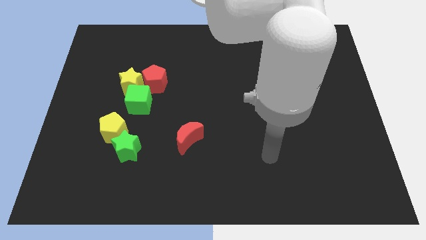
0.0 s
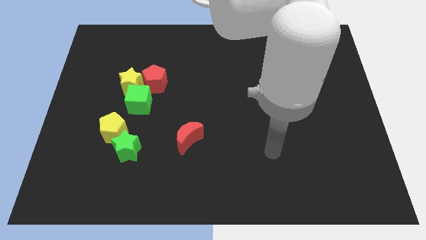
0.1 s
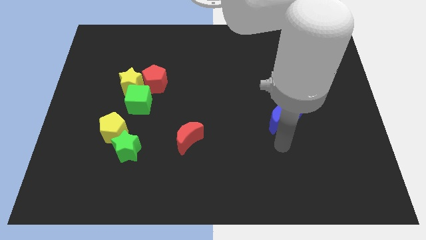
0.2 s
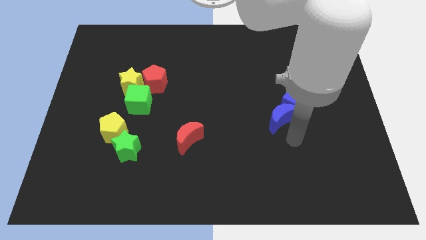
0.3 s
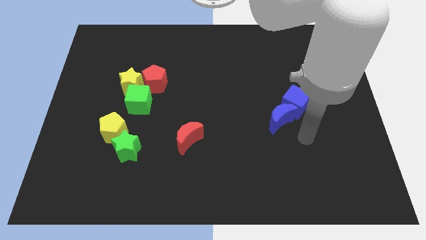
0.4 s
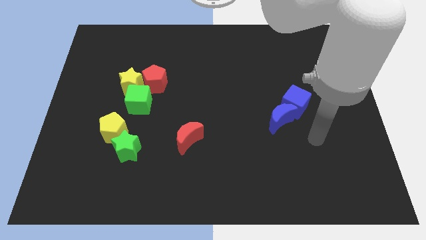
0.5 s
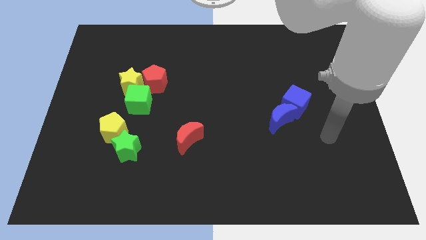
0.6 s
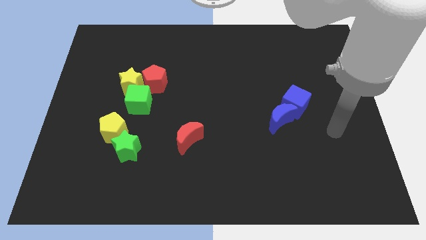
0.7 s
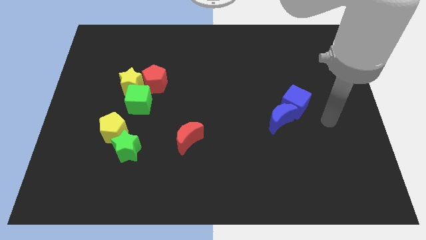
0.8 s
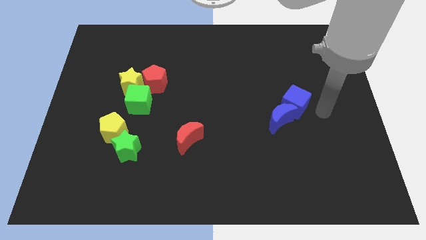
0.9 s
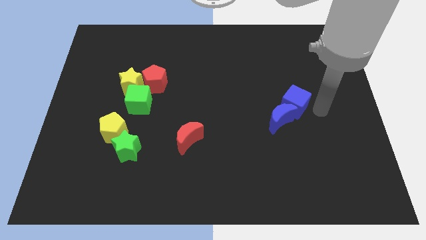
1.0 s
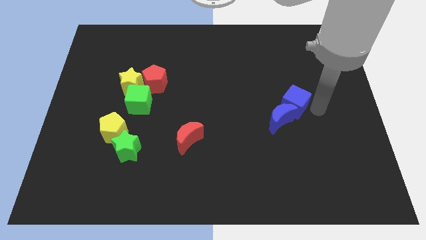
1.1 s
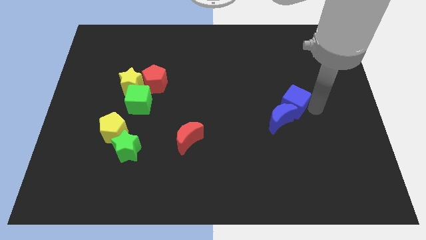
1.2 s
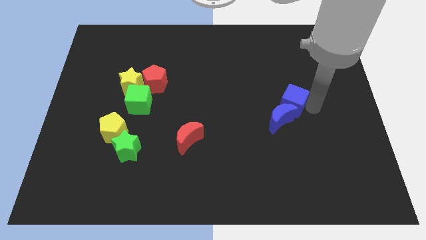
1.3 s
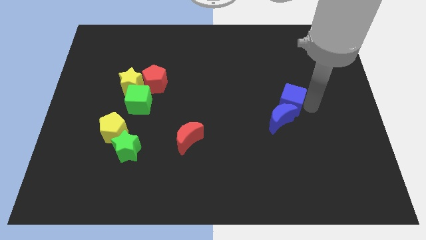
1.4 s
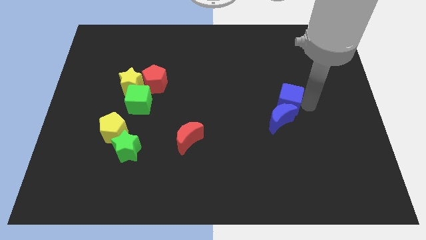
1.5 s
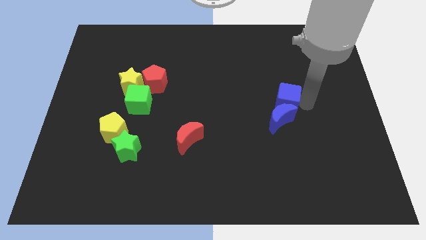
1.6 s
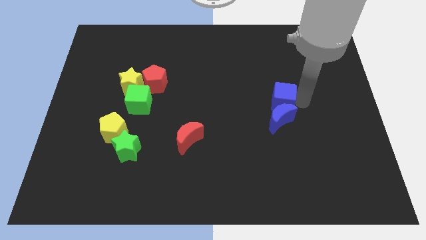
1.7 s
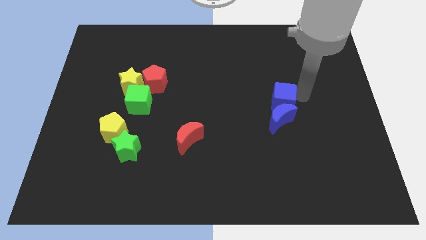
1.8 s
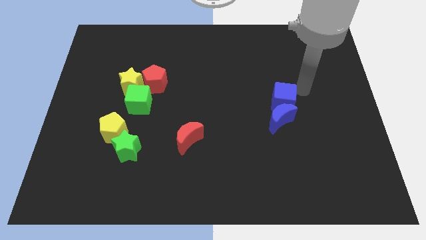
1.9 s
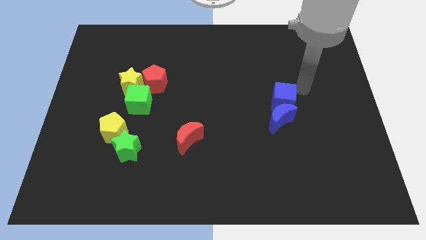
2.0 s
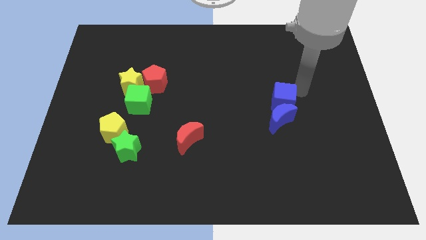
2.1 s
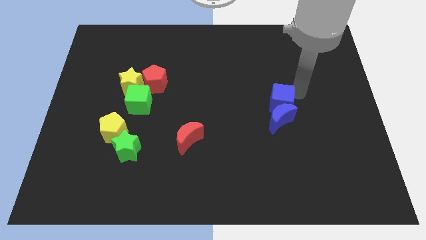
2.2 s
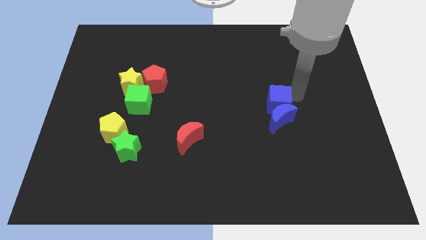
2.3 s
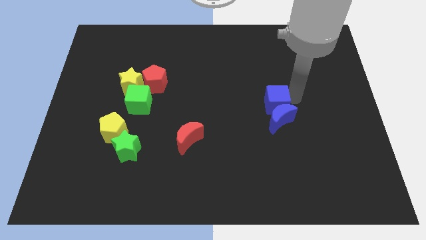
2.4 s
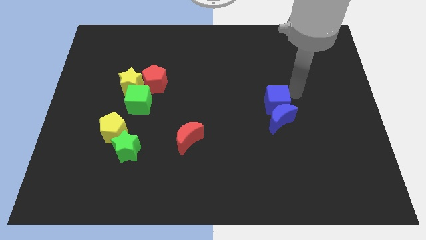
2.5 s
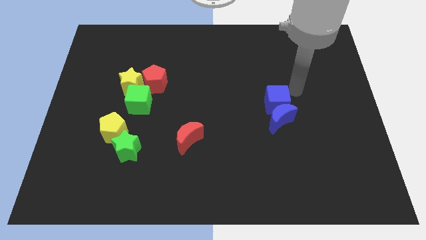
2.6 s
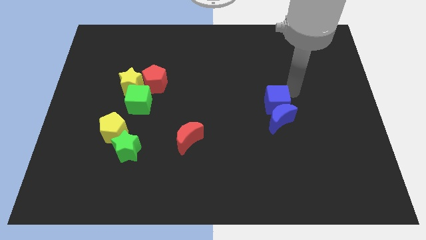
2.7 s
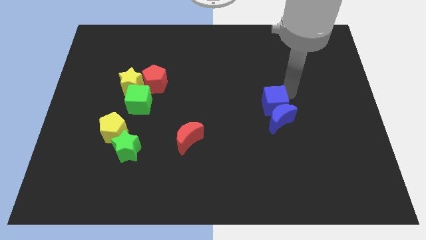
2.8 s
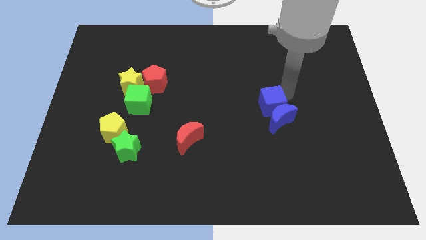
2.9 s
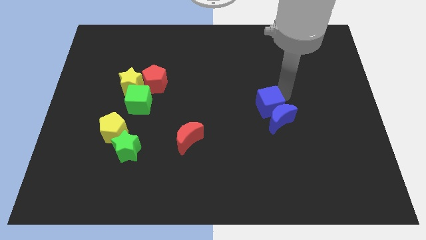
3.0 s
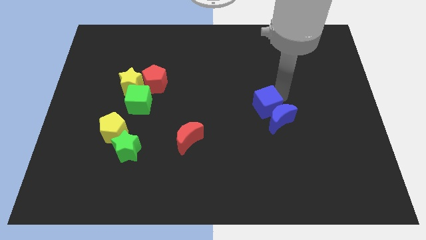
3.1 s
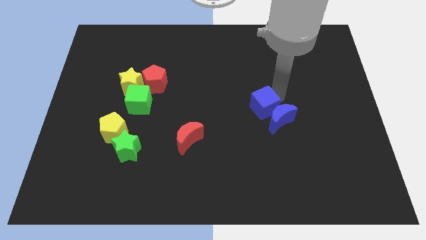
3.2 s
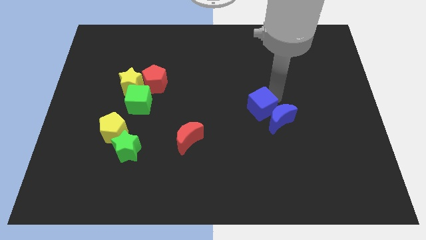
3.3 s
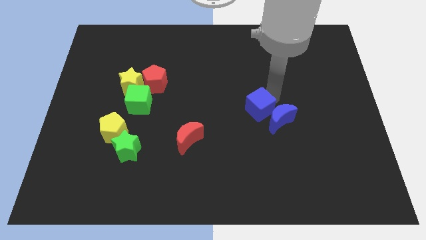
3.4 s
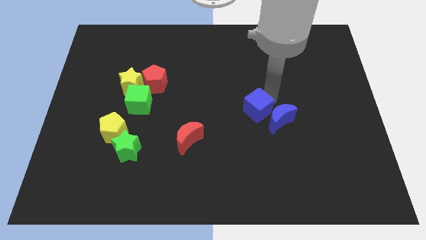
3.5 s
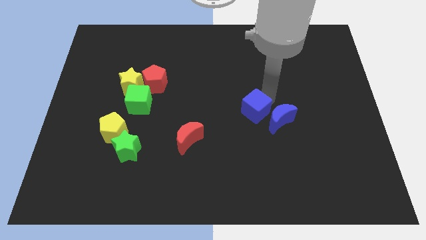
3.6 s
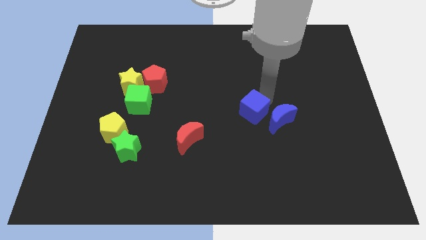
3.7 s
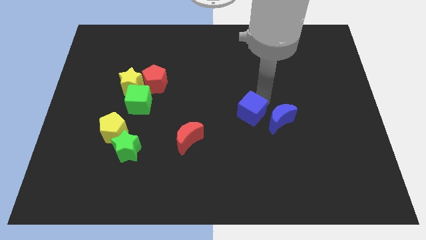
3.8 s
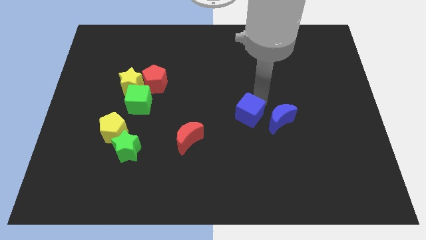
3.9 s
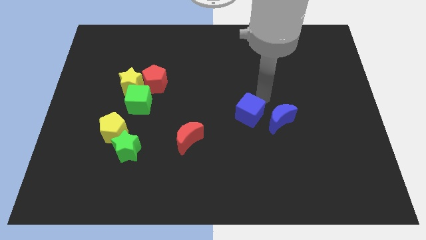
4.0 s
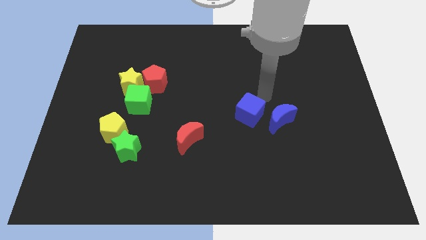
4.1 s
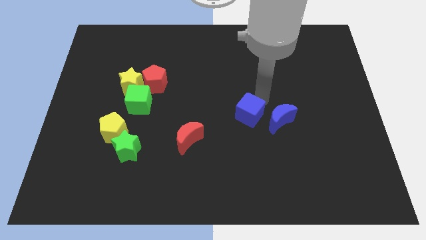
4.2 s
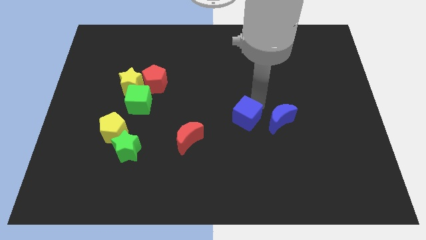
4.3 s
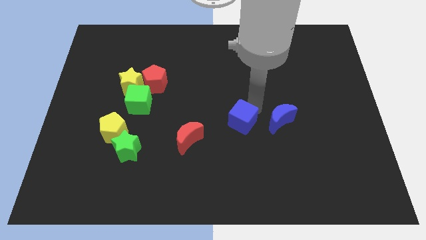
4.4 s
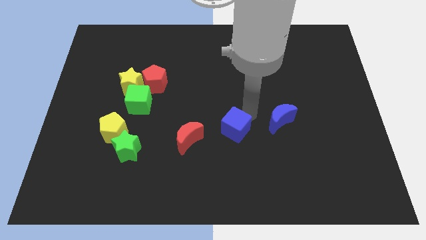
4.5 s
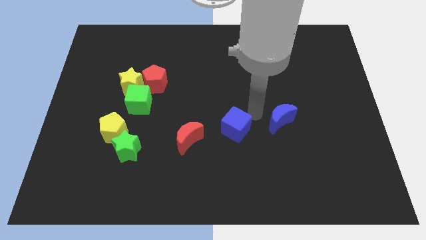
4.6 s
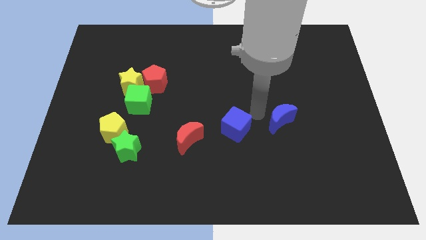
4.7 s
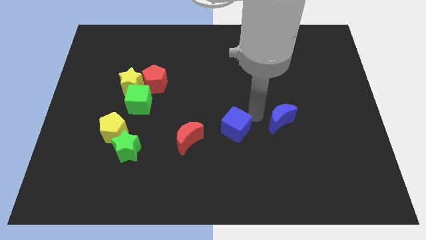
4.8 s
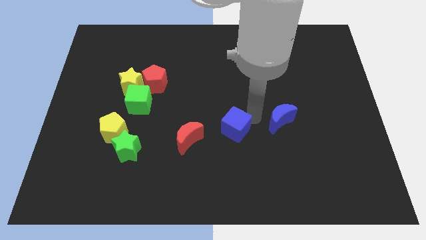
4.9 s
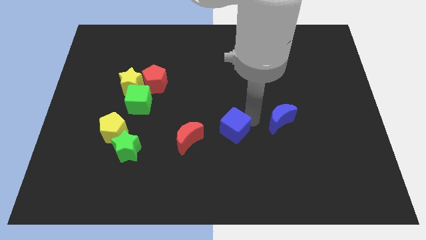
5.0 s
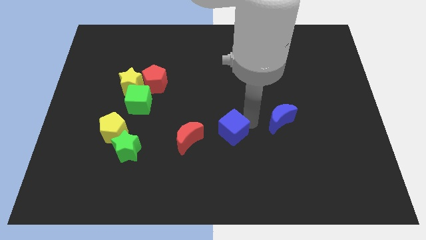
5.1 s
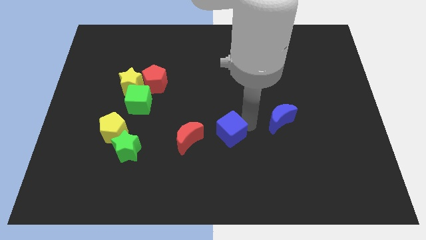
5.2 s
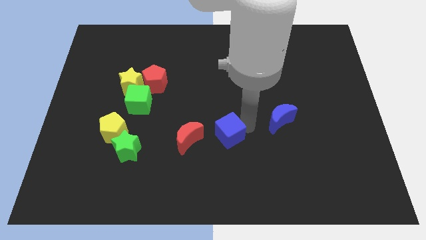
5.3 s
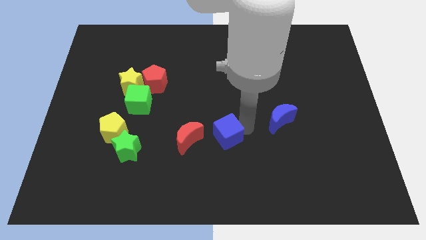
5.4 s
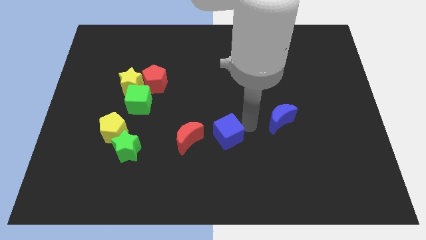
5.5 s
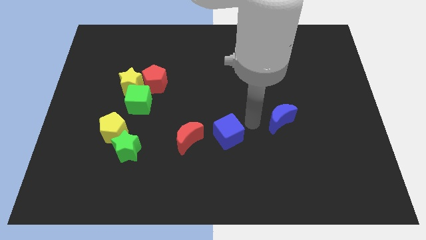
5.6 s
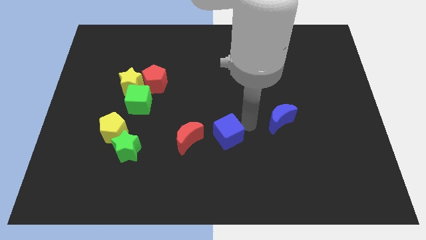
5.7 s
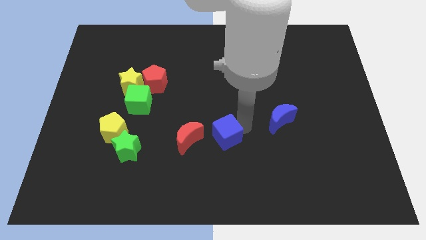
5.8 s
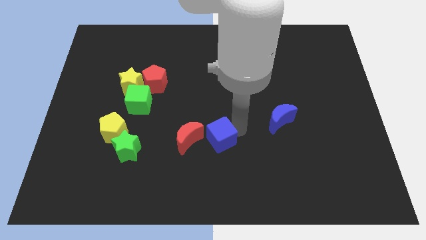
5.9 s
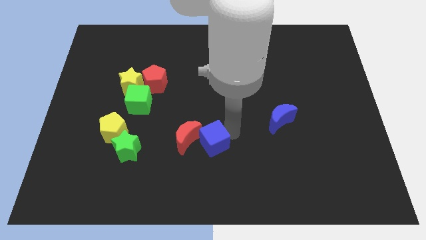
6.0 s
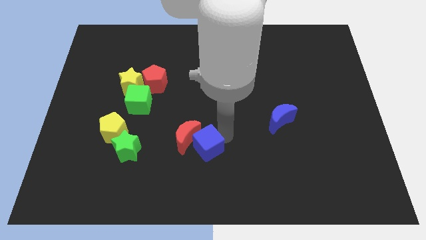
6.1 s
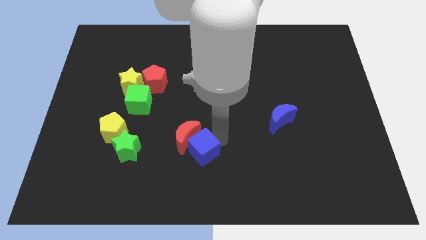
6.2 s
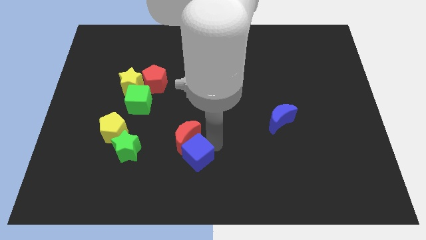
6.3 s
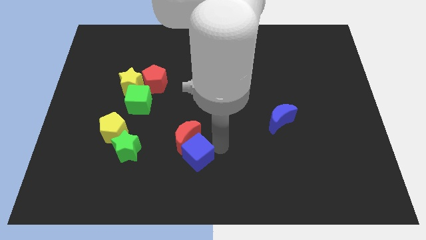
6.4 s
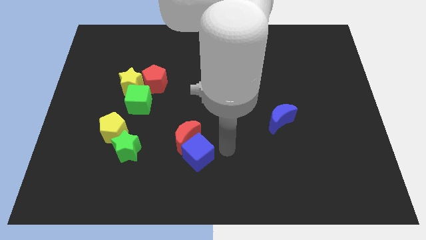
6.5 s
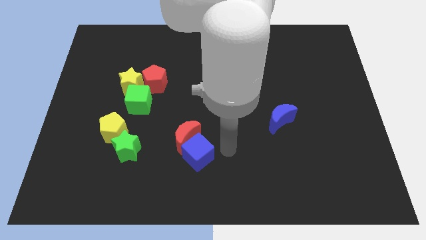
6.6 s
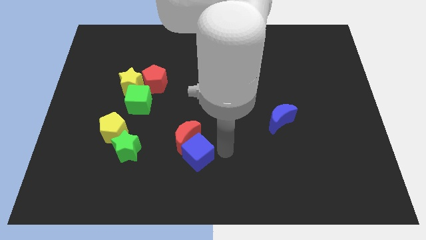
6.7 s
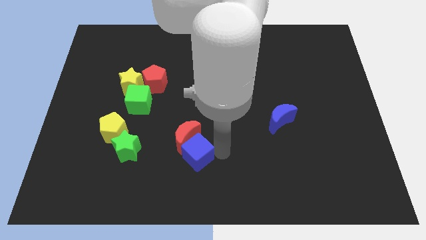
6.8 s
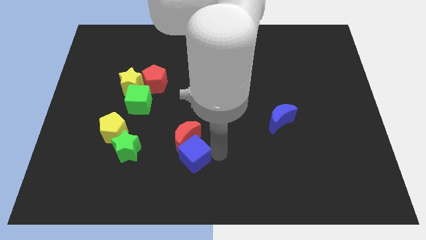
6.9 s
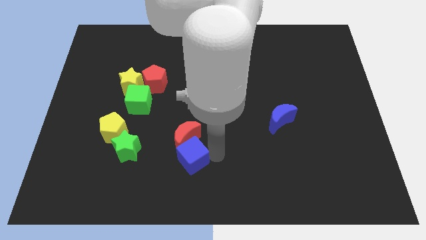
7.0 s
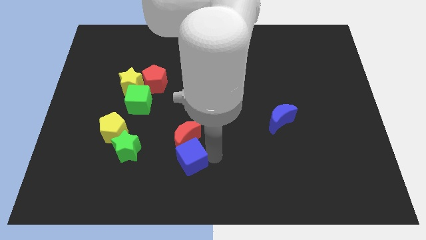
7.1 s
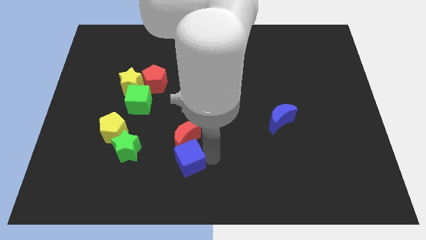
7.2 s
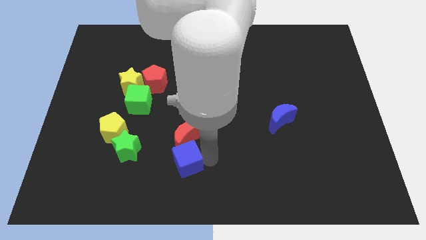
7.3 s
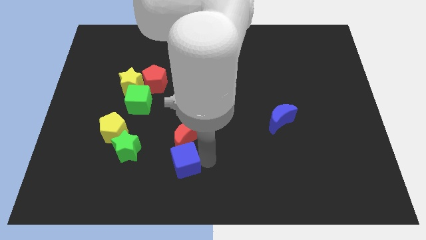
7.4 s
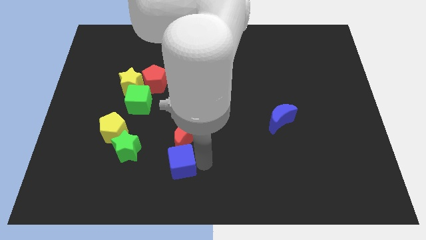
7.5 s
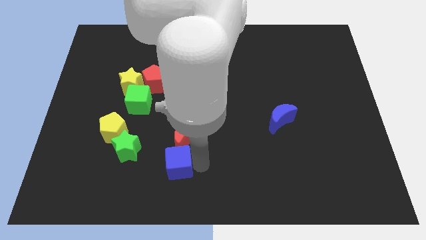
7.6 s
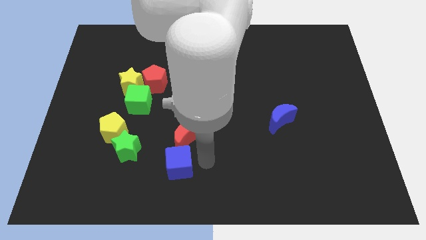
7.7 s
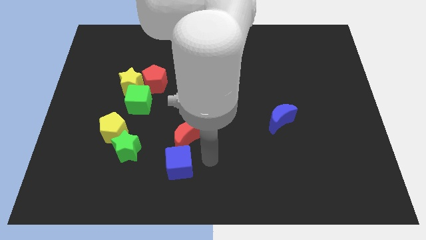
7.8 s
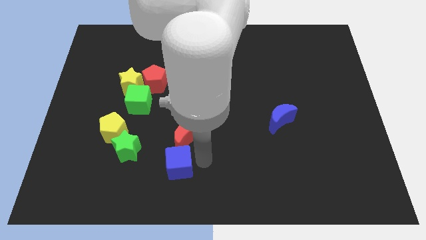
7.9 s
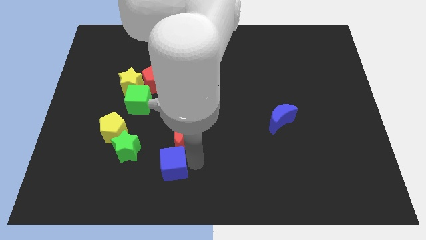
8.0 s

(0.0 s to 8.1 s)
push the blue cube to the bottom right side of the green star
